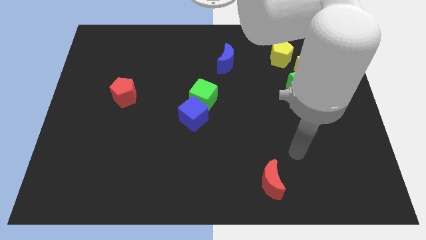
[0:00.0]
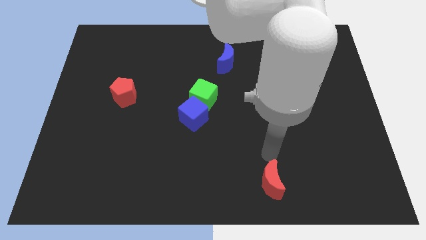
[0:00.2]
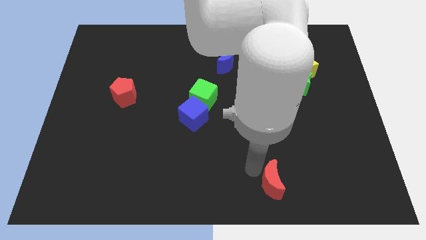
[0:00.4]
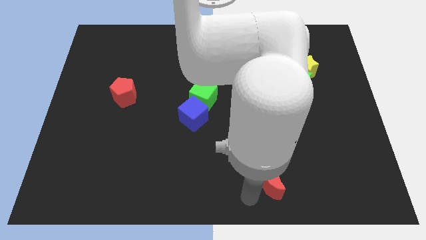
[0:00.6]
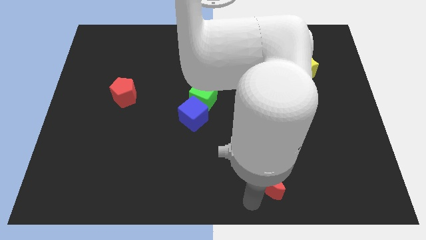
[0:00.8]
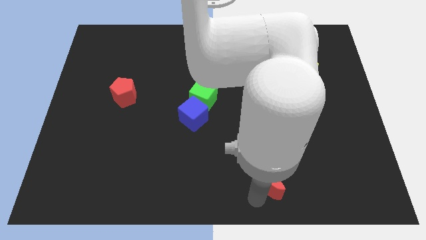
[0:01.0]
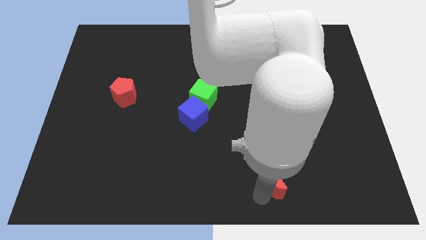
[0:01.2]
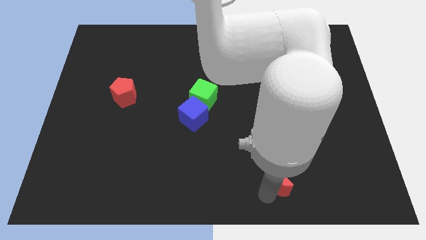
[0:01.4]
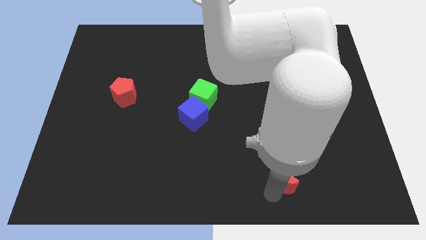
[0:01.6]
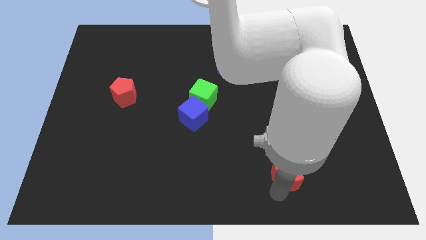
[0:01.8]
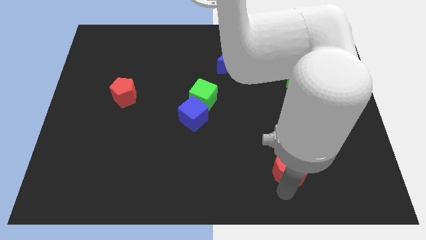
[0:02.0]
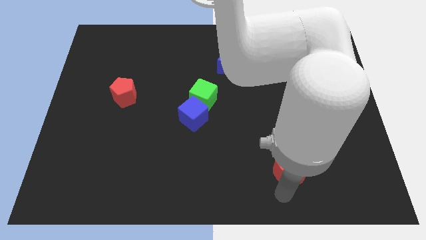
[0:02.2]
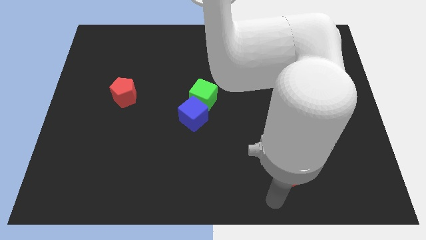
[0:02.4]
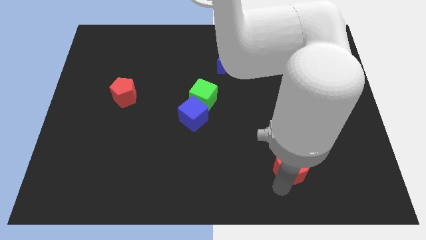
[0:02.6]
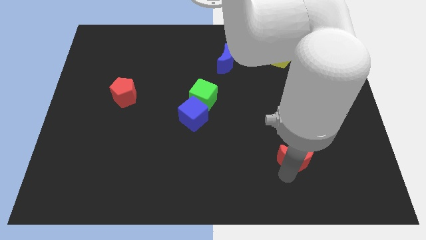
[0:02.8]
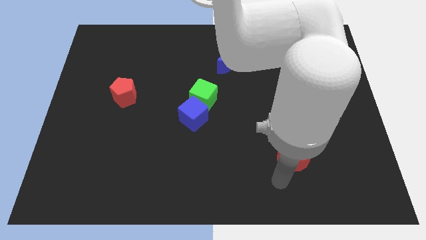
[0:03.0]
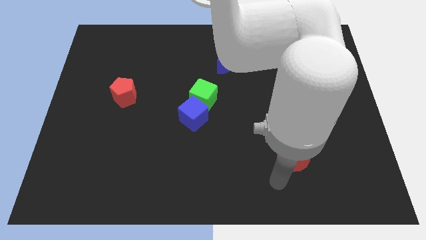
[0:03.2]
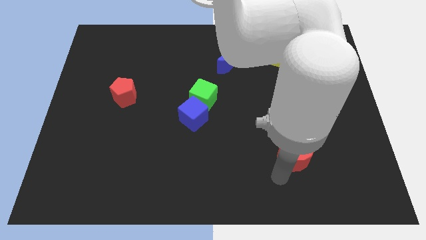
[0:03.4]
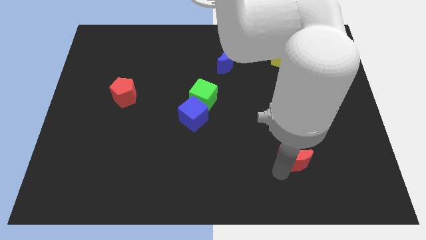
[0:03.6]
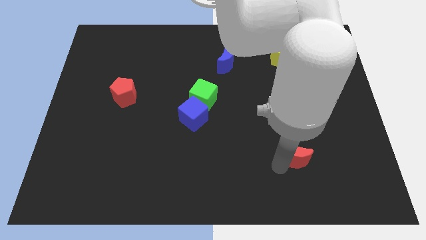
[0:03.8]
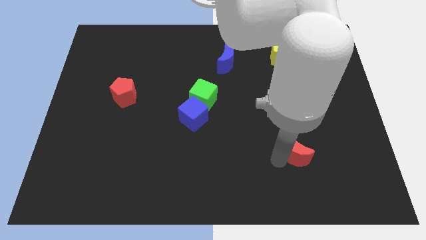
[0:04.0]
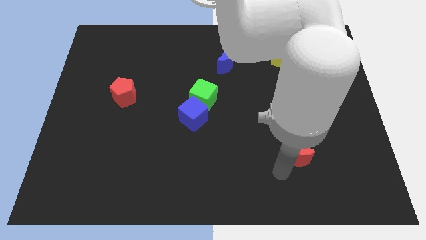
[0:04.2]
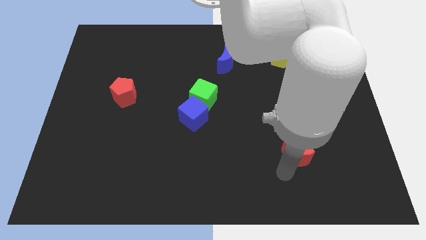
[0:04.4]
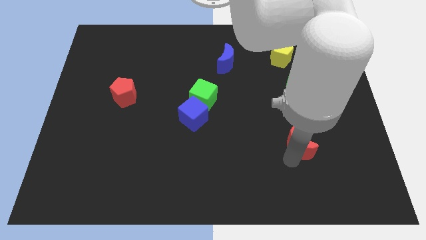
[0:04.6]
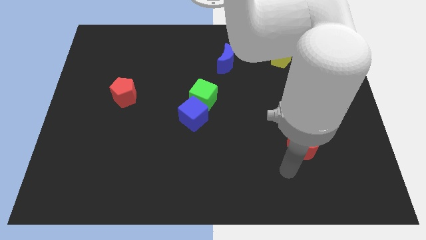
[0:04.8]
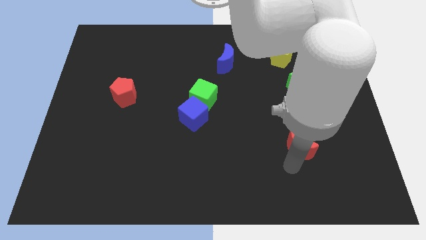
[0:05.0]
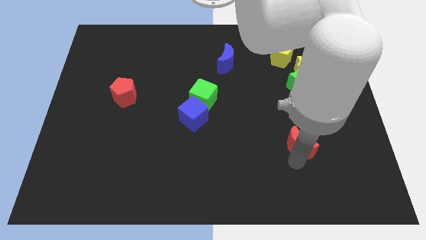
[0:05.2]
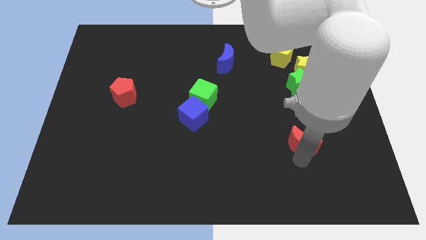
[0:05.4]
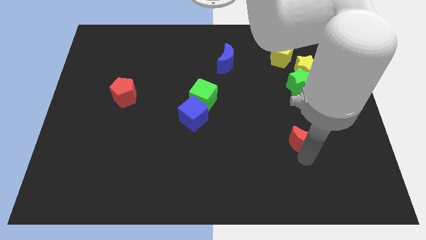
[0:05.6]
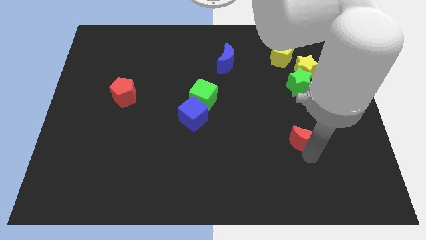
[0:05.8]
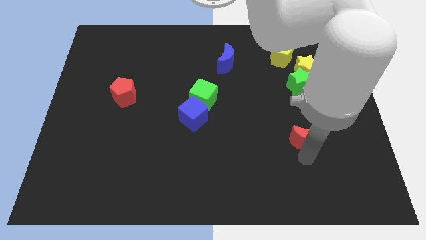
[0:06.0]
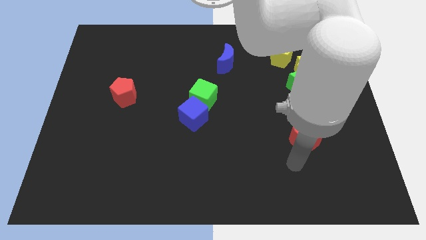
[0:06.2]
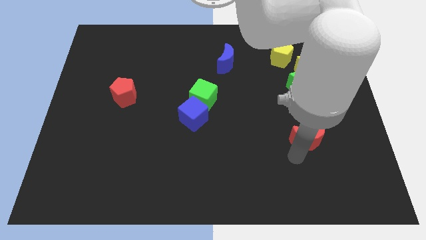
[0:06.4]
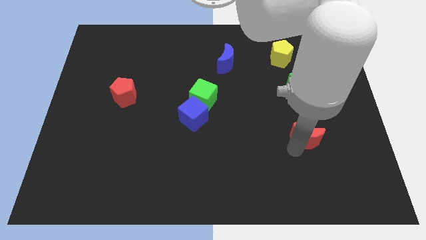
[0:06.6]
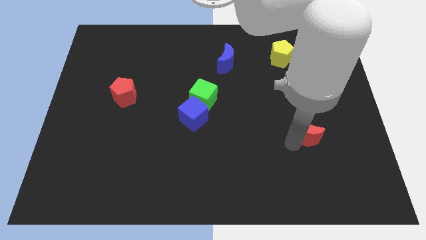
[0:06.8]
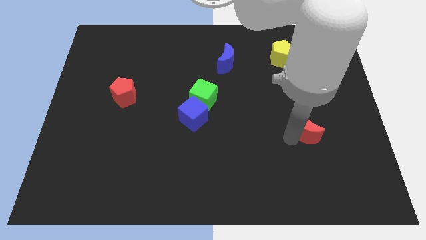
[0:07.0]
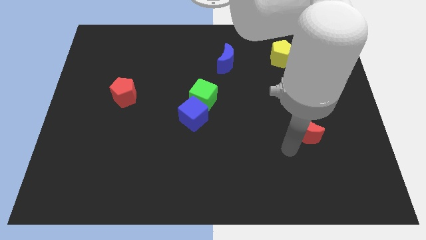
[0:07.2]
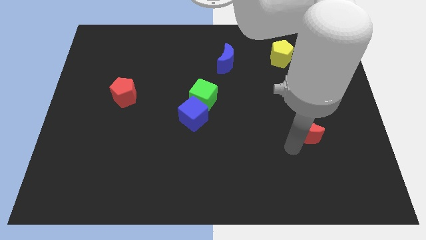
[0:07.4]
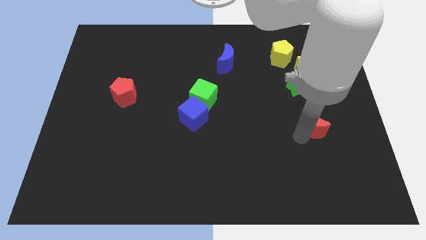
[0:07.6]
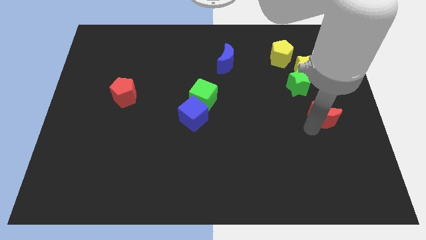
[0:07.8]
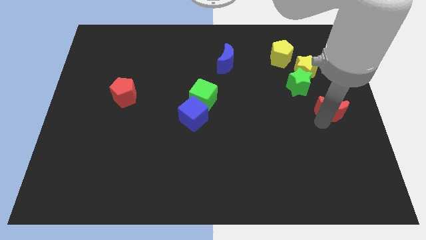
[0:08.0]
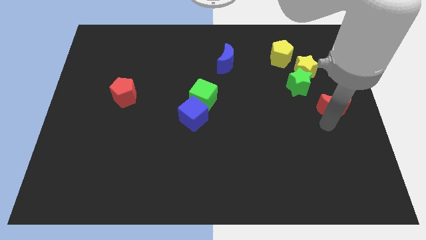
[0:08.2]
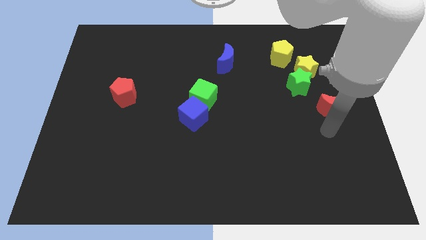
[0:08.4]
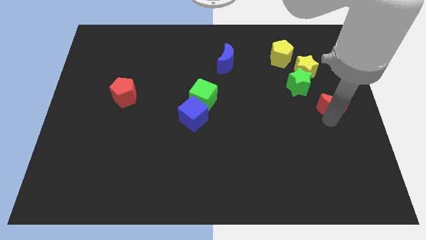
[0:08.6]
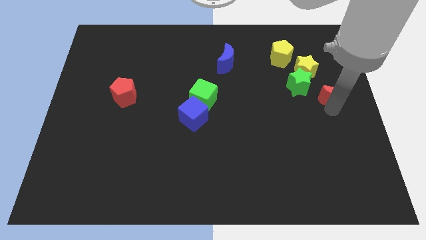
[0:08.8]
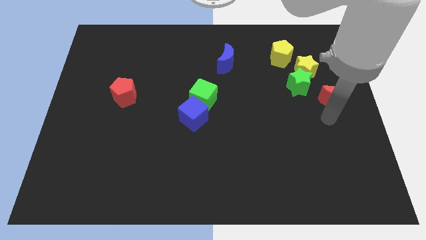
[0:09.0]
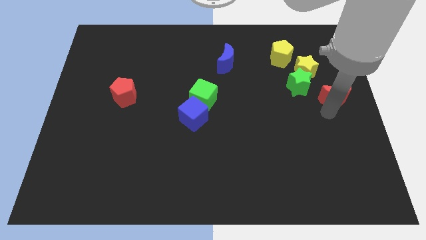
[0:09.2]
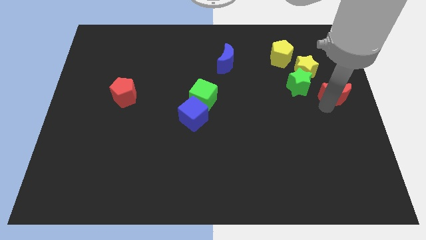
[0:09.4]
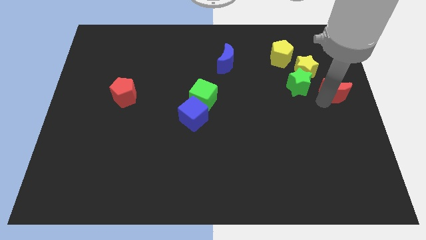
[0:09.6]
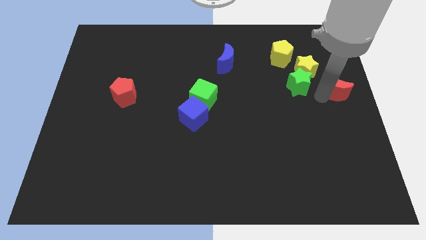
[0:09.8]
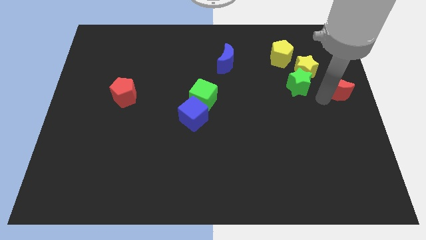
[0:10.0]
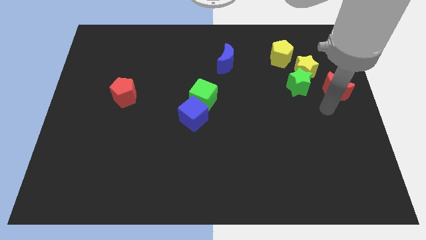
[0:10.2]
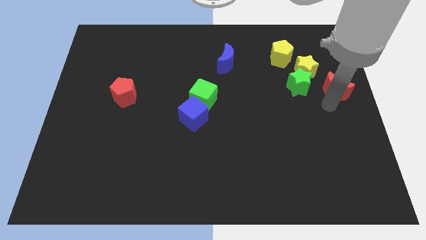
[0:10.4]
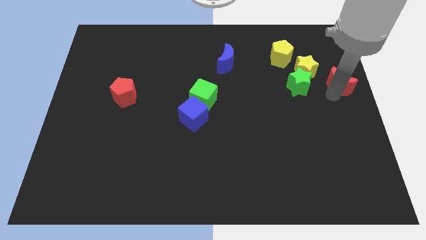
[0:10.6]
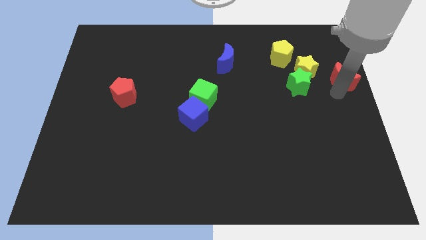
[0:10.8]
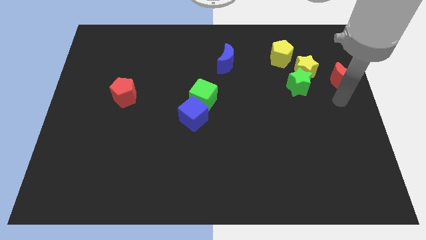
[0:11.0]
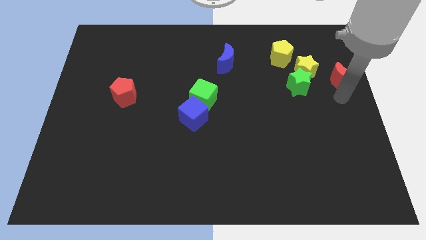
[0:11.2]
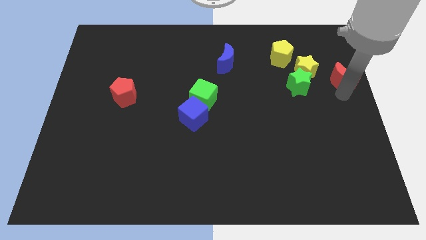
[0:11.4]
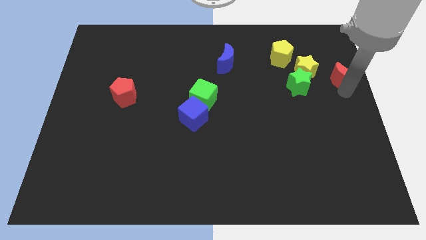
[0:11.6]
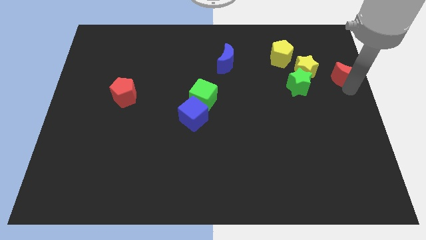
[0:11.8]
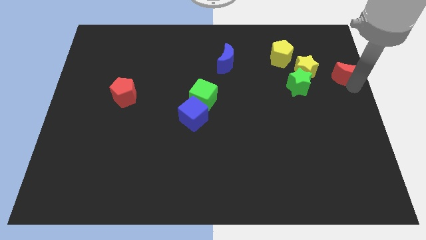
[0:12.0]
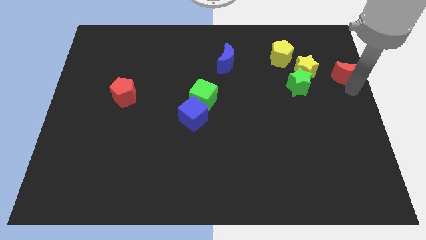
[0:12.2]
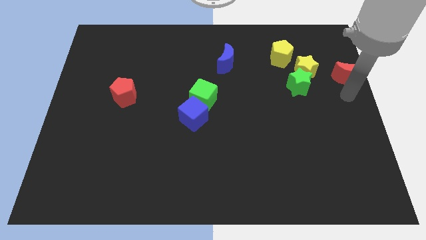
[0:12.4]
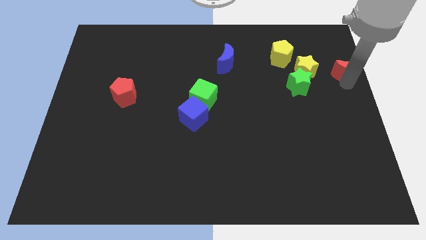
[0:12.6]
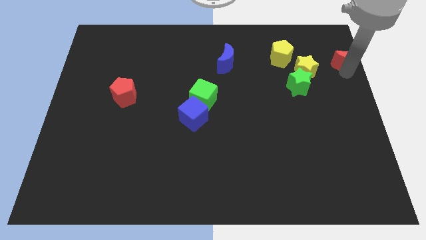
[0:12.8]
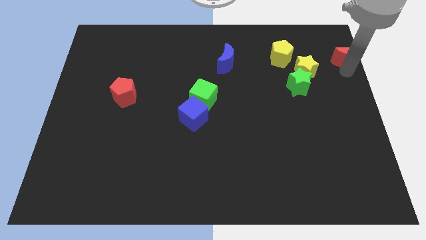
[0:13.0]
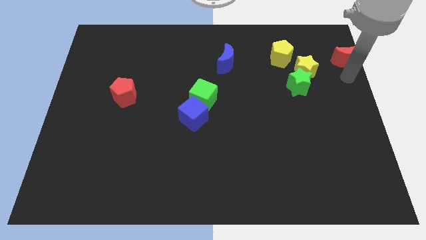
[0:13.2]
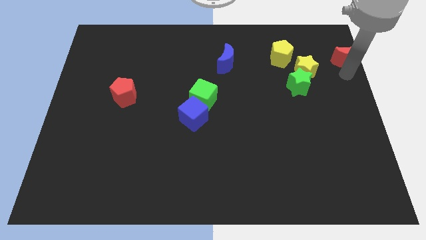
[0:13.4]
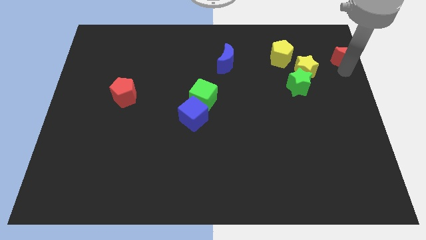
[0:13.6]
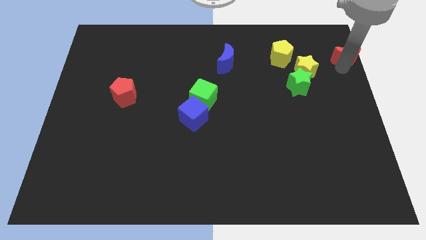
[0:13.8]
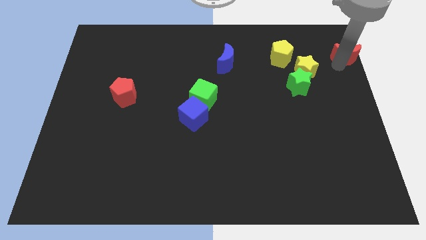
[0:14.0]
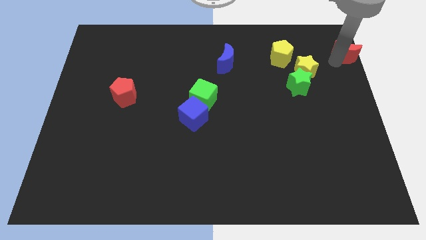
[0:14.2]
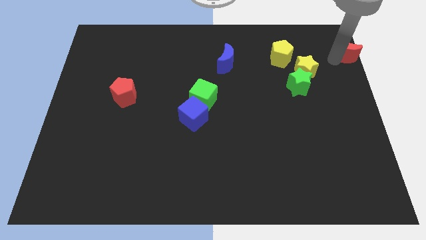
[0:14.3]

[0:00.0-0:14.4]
push the red moon to the top right
